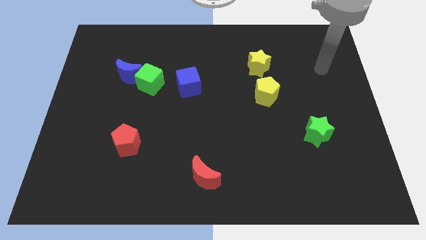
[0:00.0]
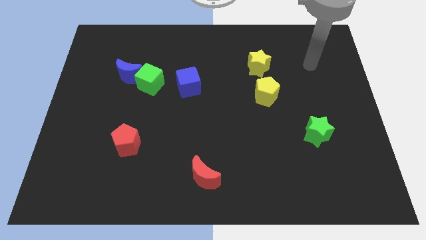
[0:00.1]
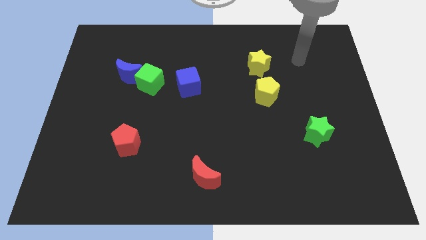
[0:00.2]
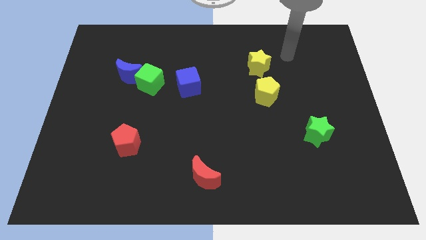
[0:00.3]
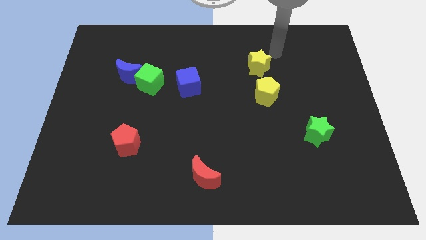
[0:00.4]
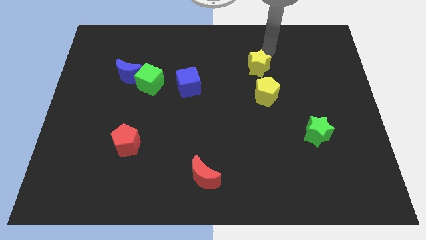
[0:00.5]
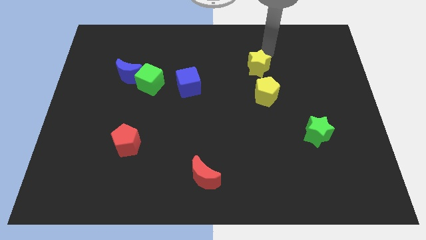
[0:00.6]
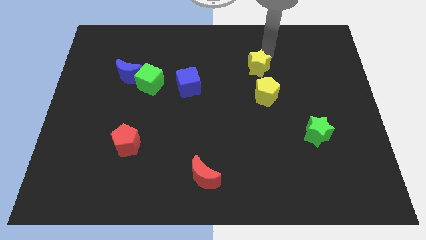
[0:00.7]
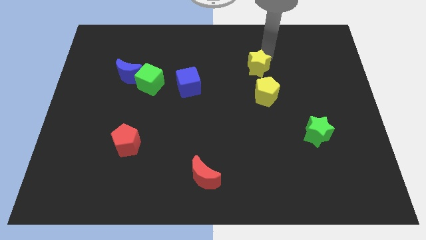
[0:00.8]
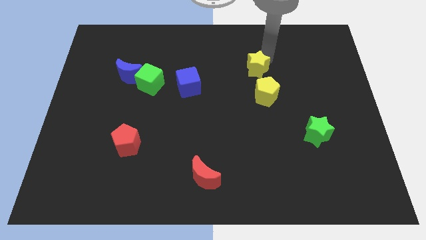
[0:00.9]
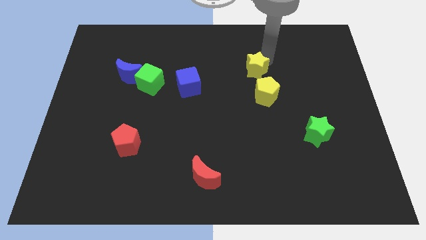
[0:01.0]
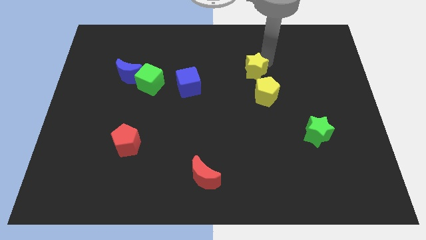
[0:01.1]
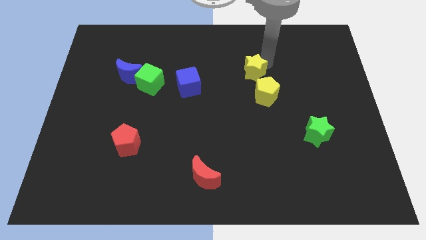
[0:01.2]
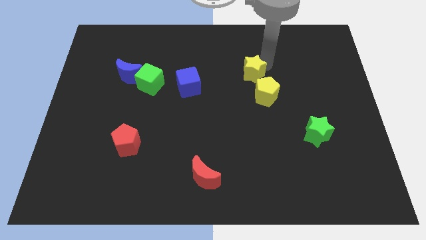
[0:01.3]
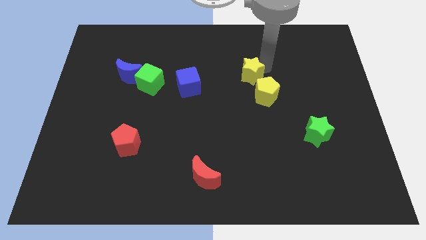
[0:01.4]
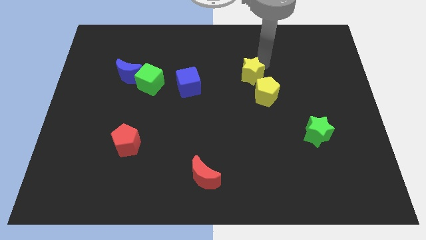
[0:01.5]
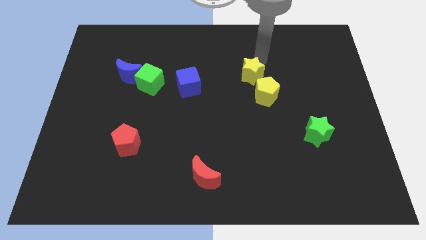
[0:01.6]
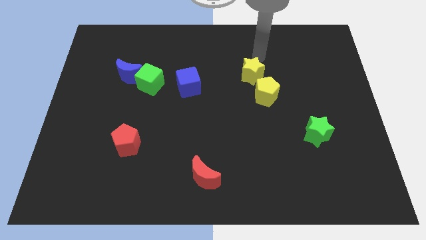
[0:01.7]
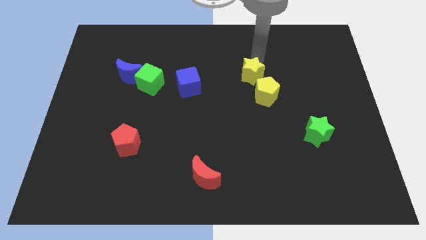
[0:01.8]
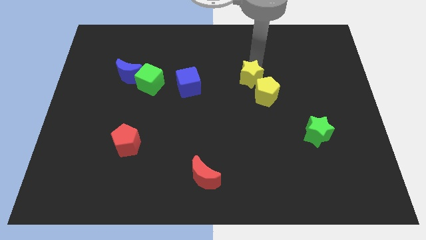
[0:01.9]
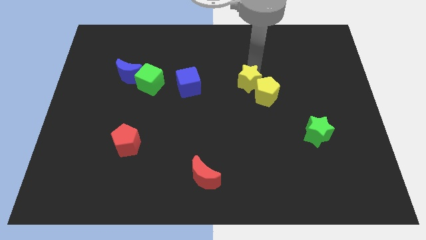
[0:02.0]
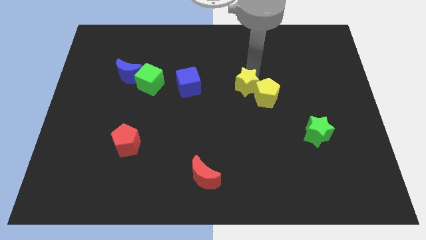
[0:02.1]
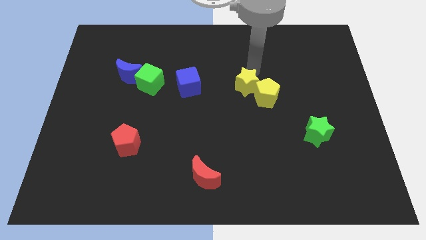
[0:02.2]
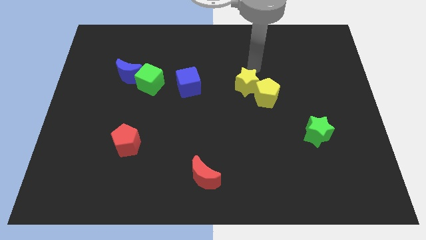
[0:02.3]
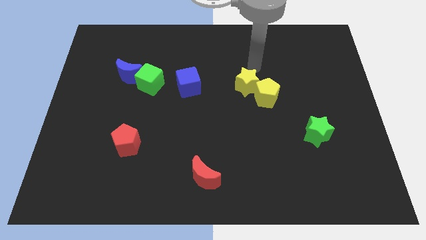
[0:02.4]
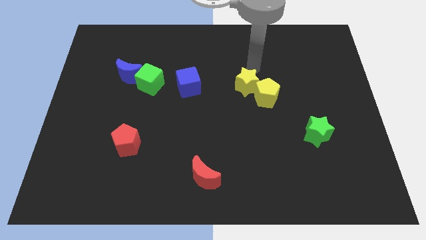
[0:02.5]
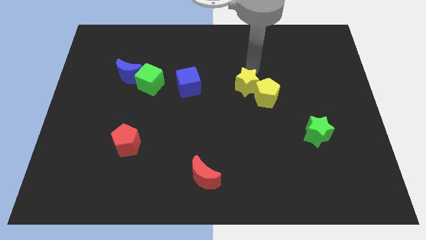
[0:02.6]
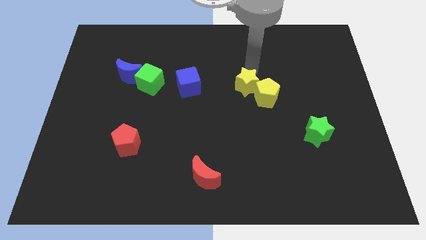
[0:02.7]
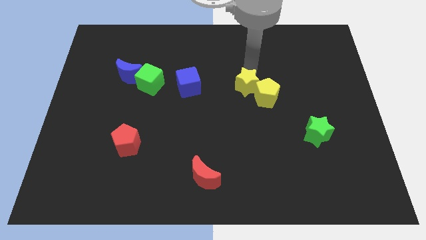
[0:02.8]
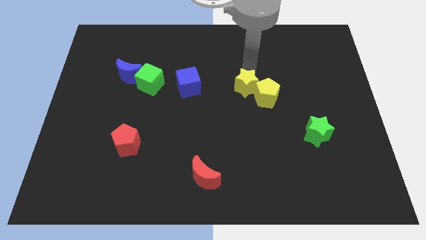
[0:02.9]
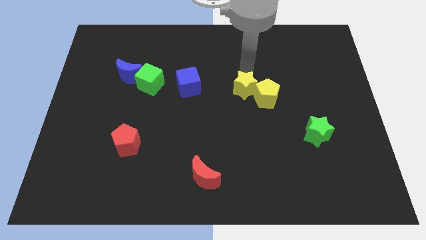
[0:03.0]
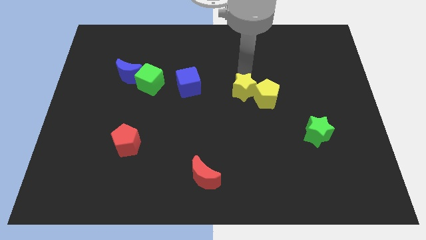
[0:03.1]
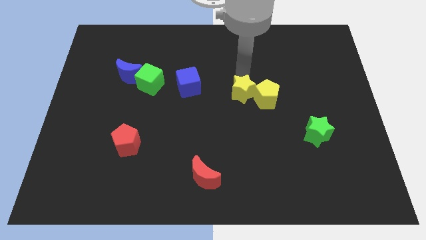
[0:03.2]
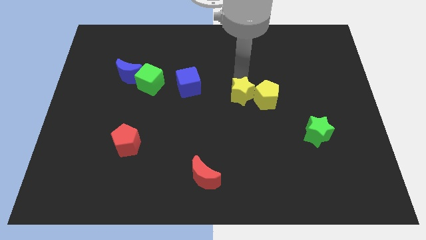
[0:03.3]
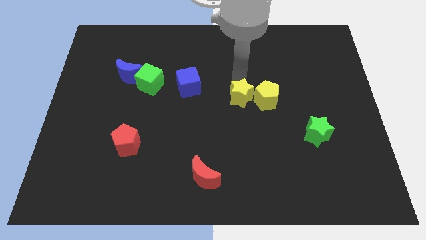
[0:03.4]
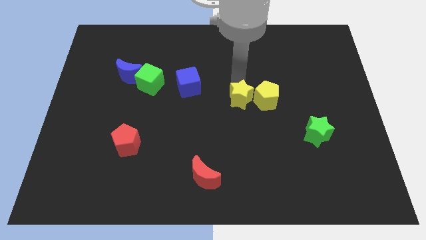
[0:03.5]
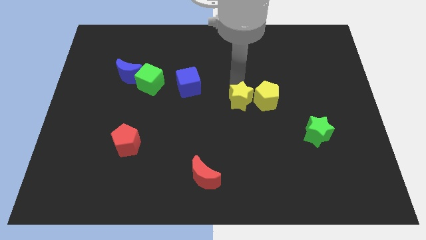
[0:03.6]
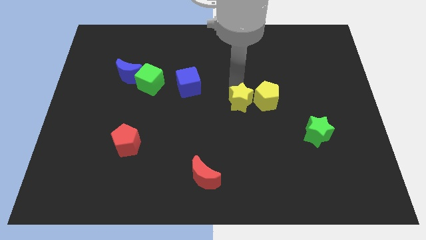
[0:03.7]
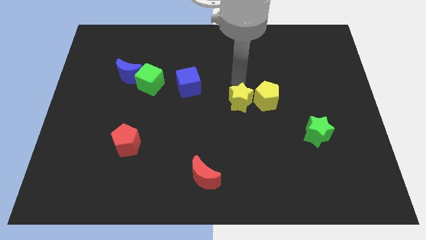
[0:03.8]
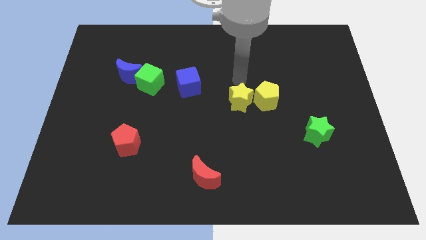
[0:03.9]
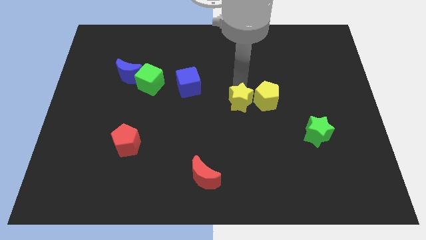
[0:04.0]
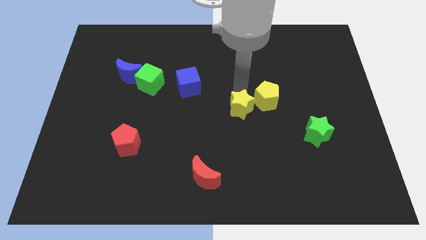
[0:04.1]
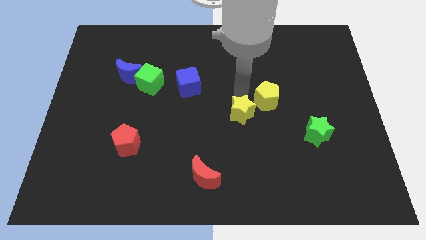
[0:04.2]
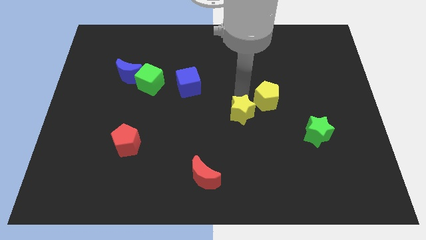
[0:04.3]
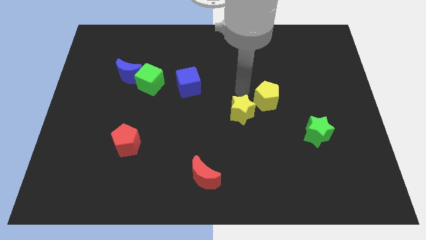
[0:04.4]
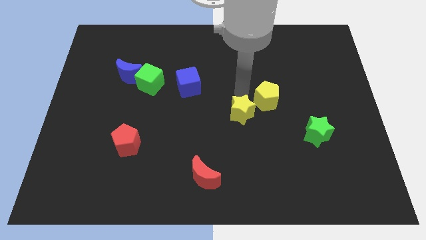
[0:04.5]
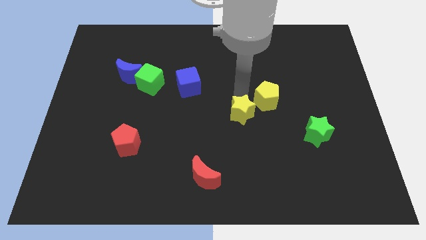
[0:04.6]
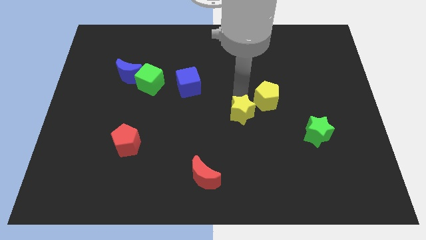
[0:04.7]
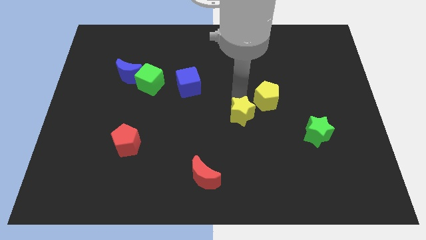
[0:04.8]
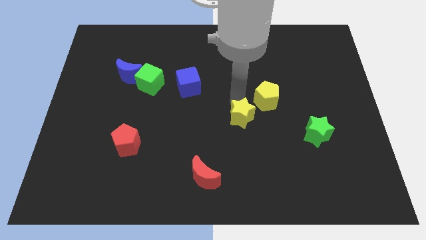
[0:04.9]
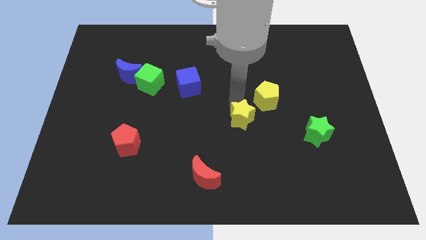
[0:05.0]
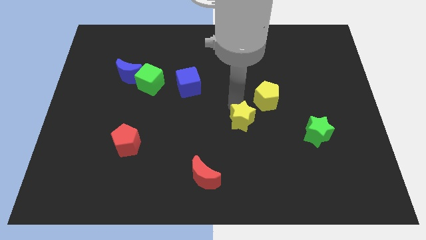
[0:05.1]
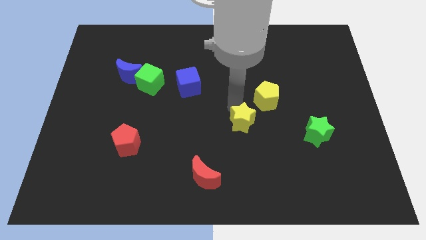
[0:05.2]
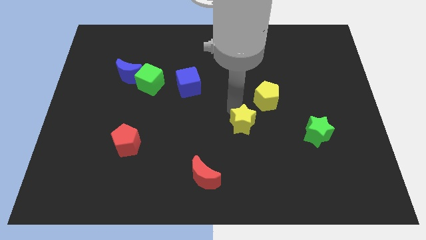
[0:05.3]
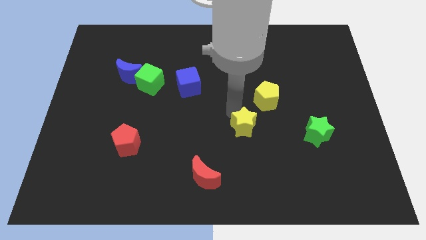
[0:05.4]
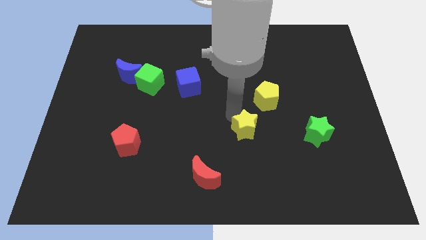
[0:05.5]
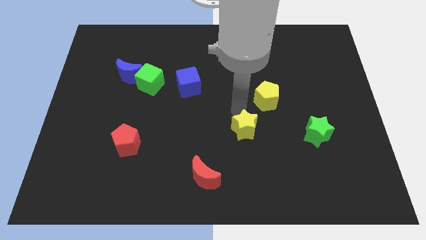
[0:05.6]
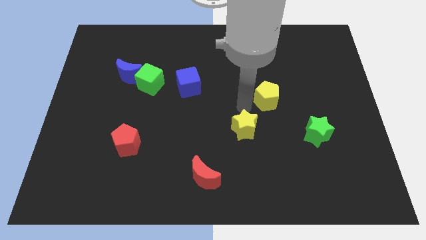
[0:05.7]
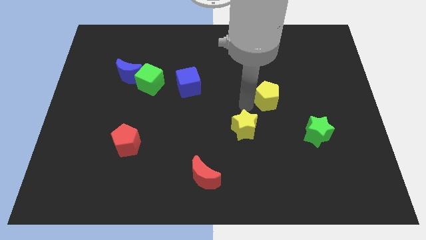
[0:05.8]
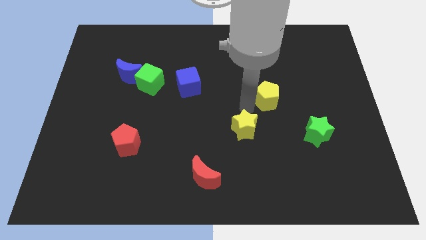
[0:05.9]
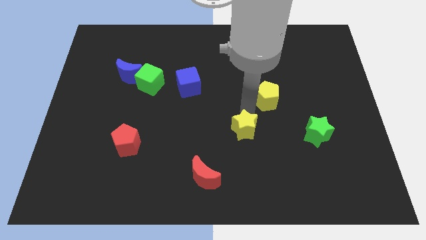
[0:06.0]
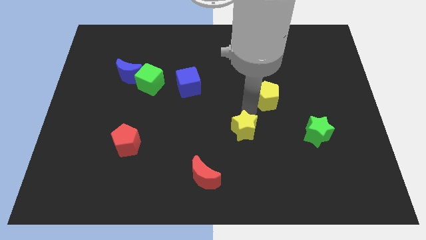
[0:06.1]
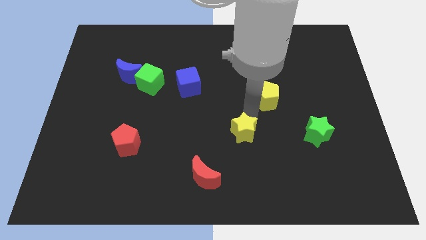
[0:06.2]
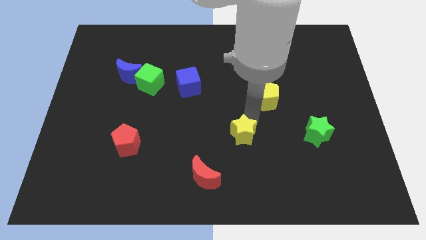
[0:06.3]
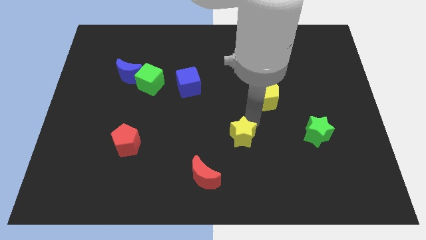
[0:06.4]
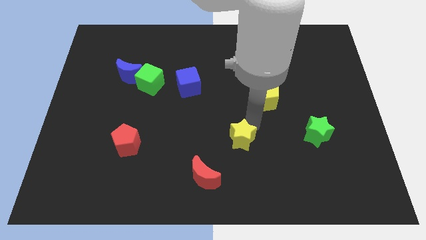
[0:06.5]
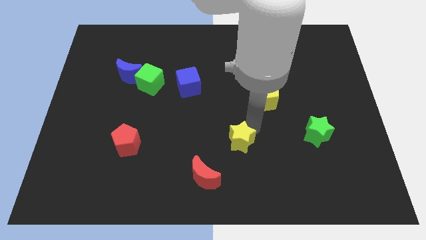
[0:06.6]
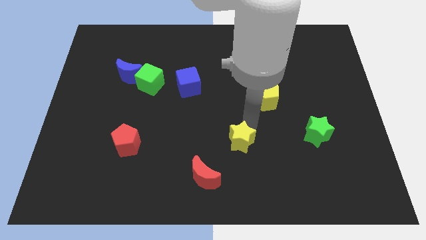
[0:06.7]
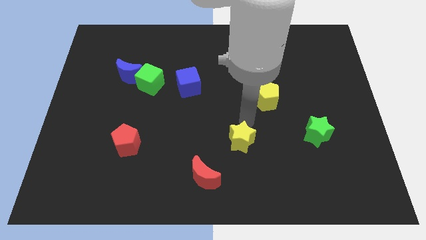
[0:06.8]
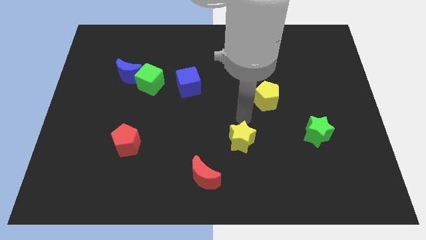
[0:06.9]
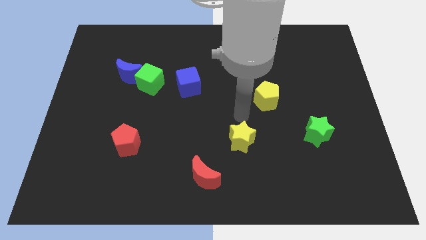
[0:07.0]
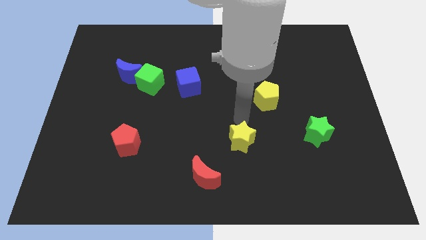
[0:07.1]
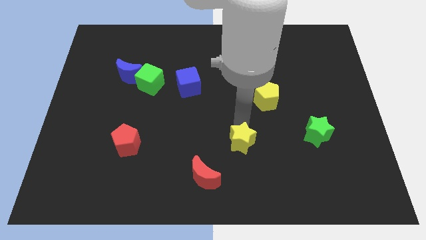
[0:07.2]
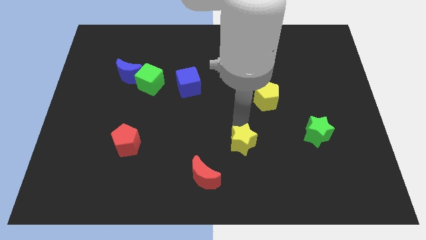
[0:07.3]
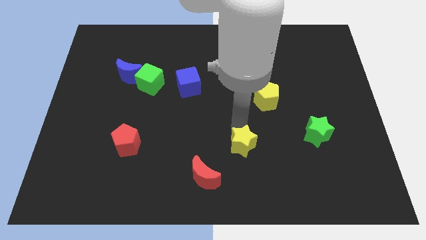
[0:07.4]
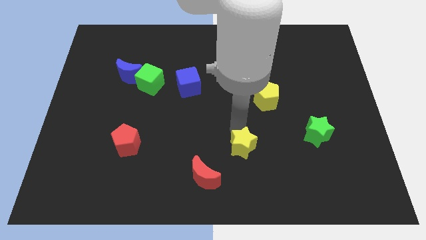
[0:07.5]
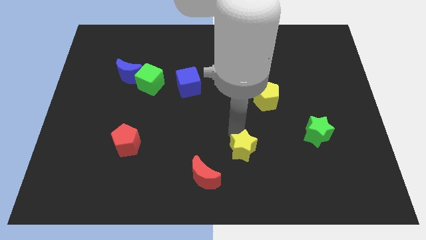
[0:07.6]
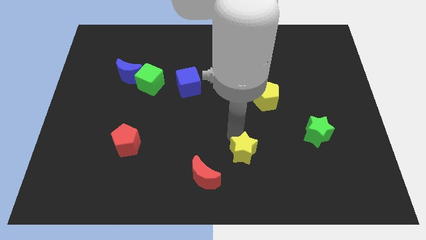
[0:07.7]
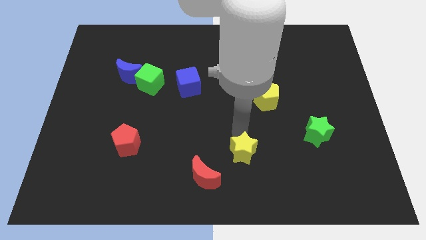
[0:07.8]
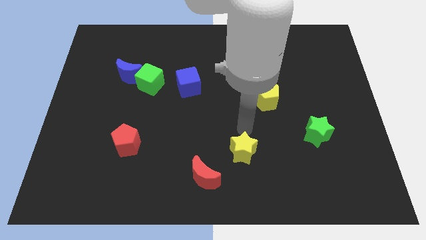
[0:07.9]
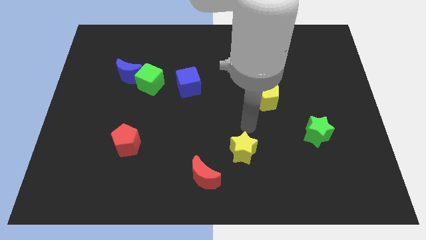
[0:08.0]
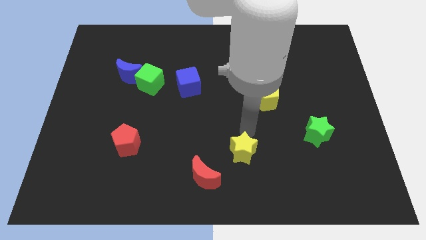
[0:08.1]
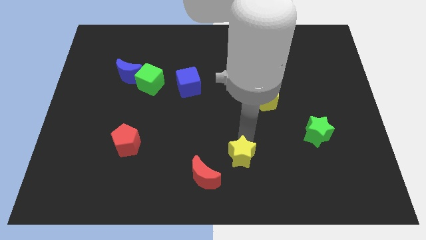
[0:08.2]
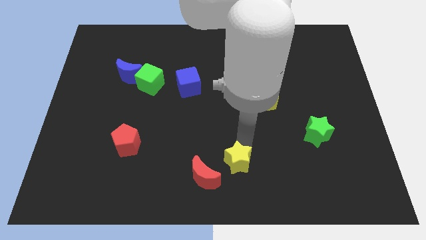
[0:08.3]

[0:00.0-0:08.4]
move the yellow star to the bottom side
